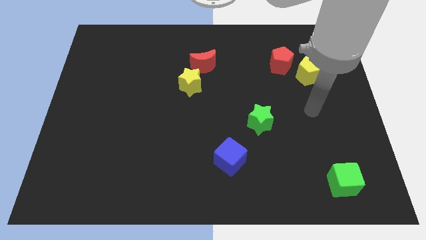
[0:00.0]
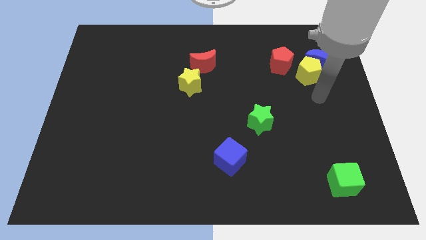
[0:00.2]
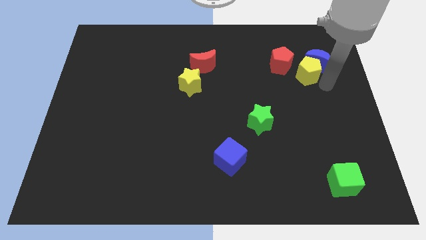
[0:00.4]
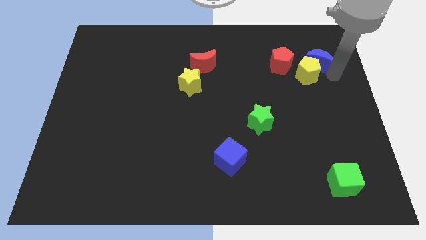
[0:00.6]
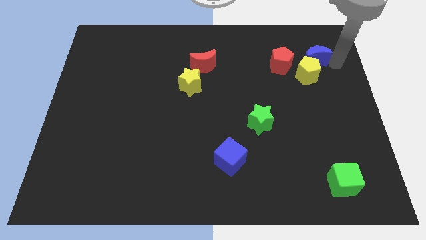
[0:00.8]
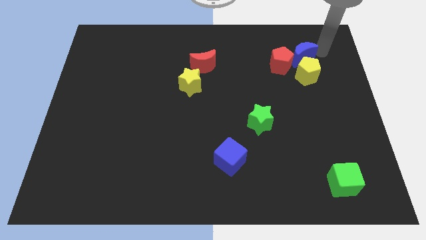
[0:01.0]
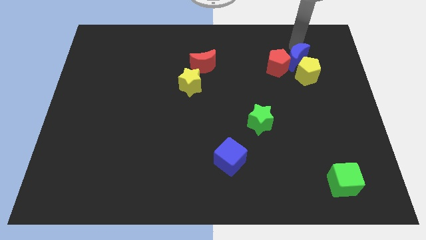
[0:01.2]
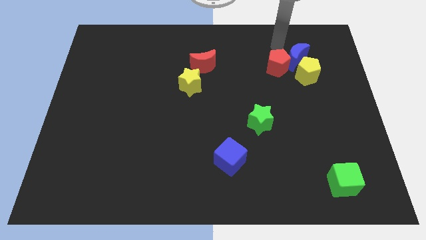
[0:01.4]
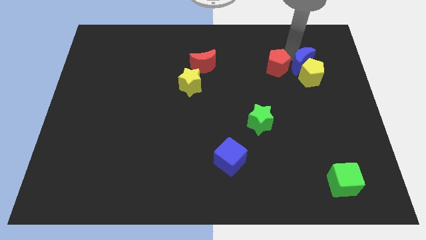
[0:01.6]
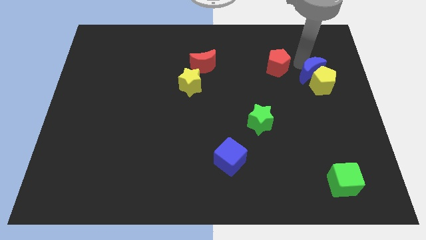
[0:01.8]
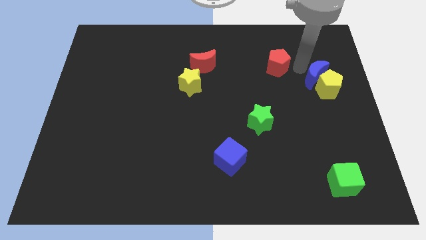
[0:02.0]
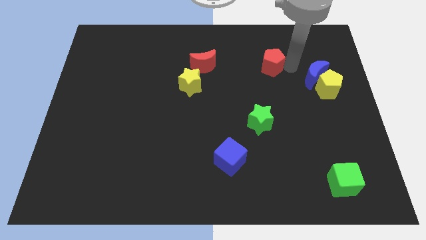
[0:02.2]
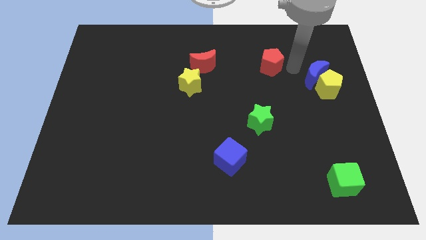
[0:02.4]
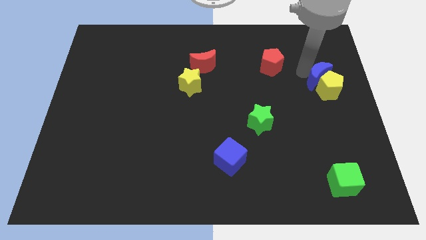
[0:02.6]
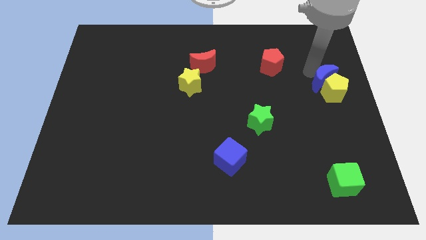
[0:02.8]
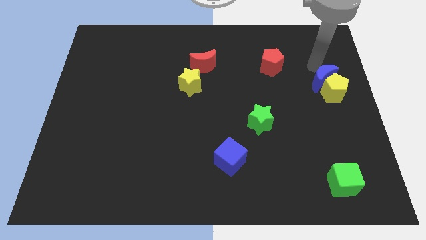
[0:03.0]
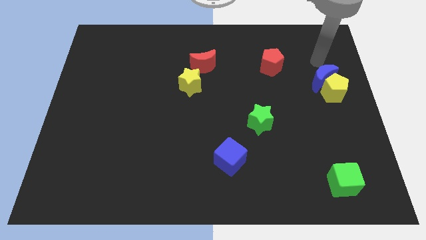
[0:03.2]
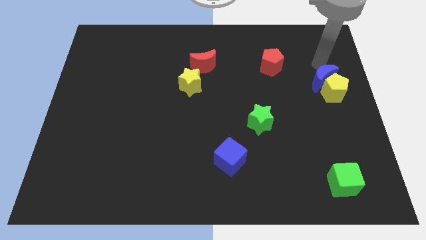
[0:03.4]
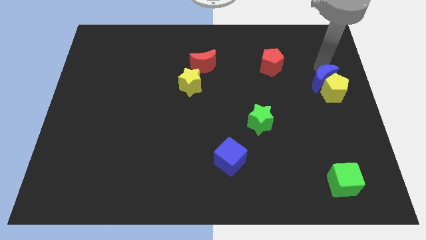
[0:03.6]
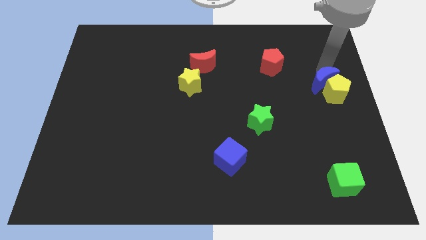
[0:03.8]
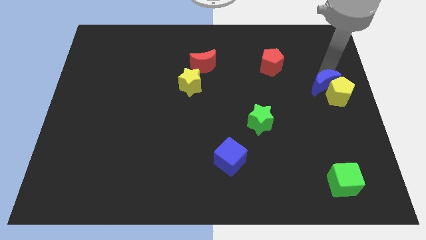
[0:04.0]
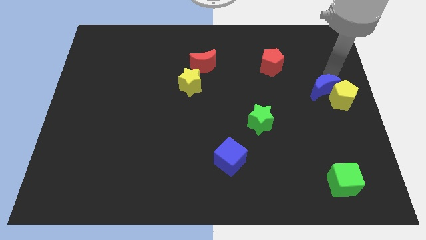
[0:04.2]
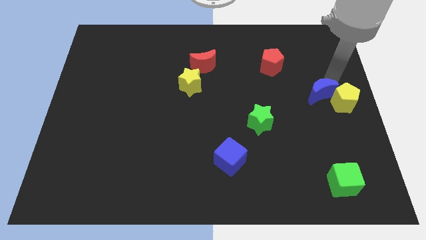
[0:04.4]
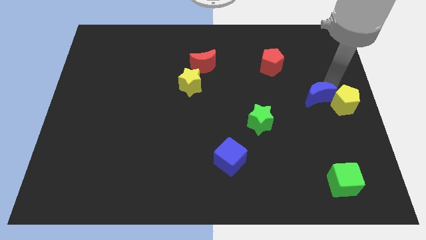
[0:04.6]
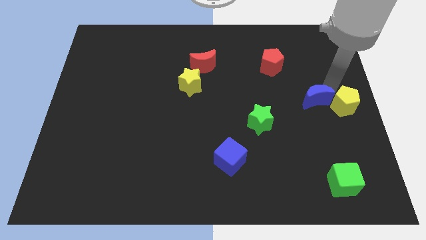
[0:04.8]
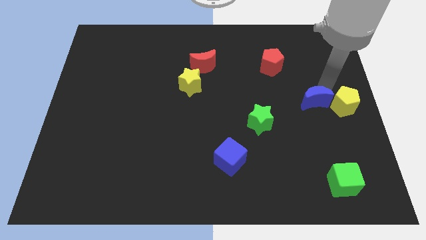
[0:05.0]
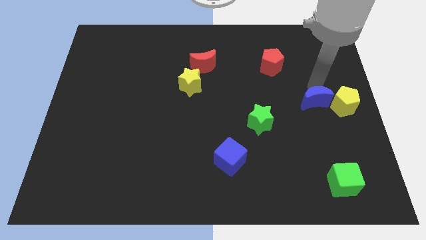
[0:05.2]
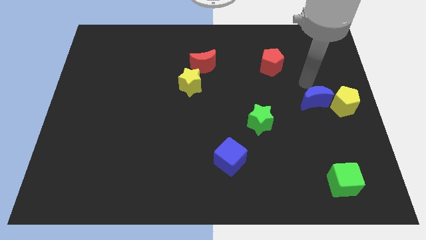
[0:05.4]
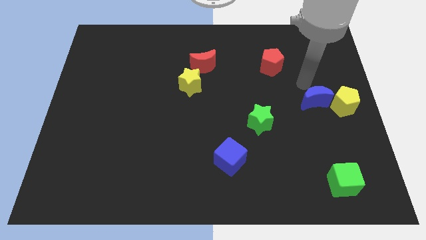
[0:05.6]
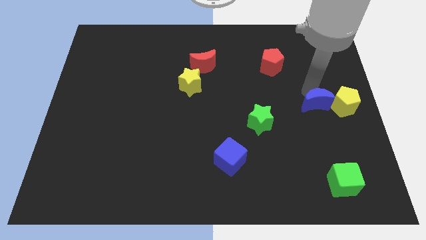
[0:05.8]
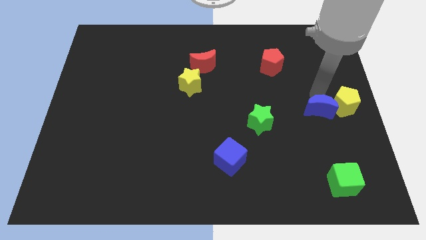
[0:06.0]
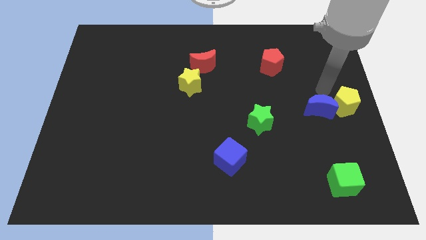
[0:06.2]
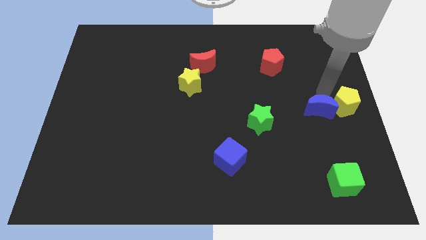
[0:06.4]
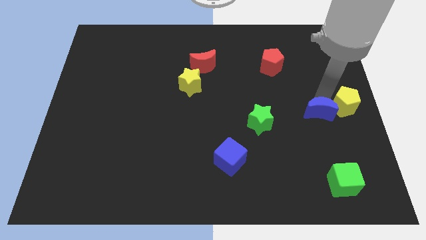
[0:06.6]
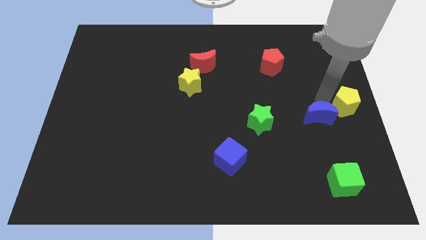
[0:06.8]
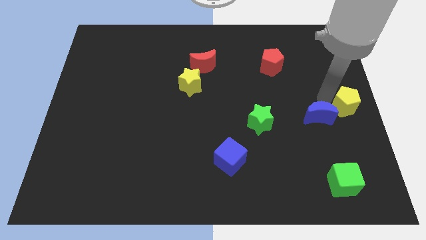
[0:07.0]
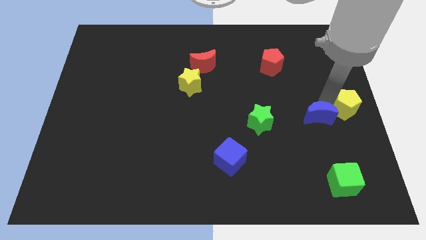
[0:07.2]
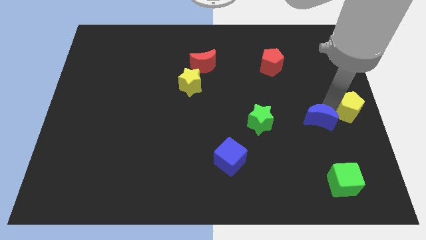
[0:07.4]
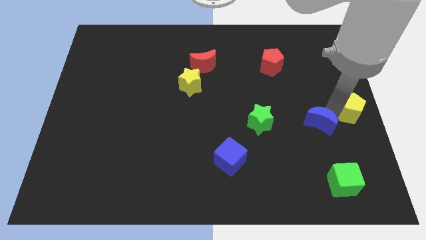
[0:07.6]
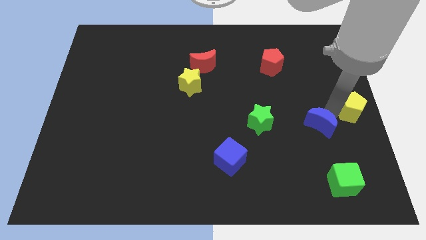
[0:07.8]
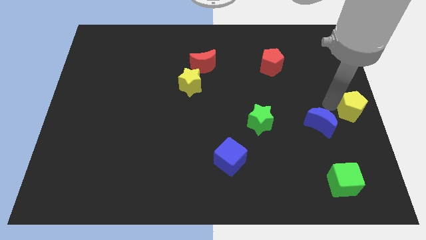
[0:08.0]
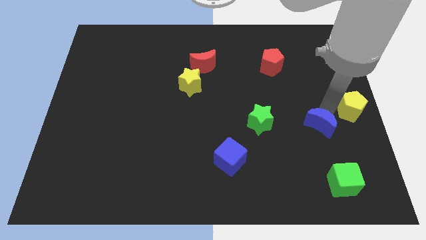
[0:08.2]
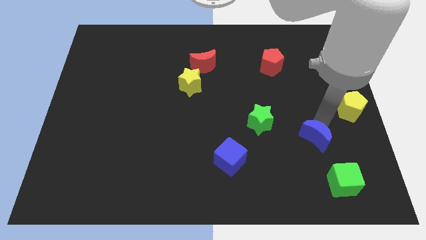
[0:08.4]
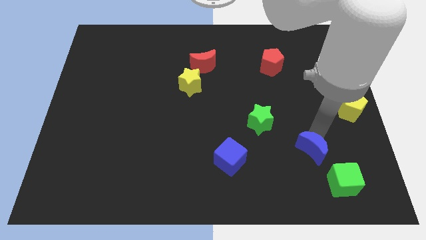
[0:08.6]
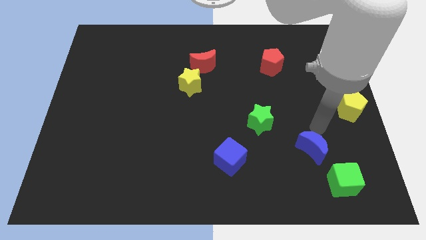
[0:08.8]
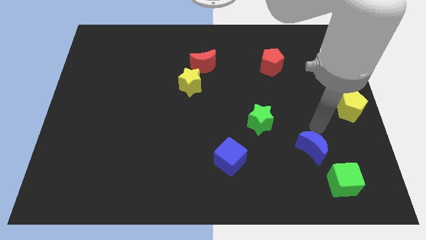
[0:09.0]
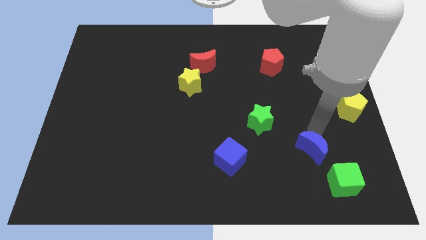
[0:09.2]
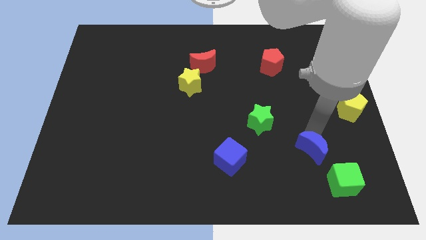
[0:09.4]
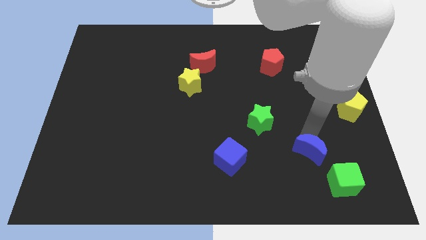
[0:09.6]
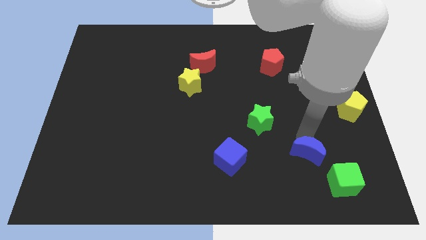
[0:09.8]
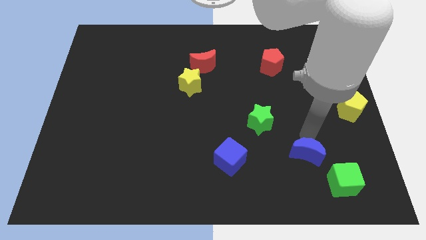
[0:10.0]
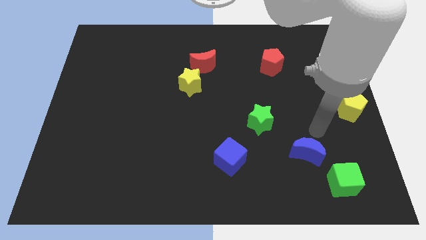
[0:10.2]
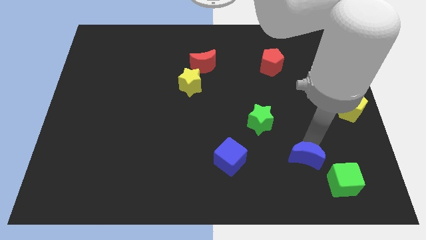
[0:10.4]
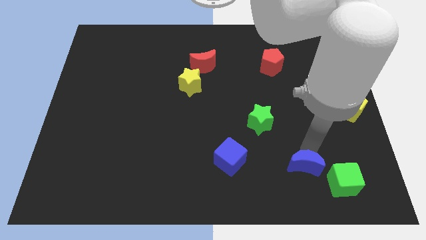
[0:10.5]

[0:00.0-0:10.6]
put the blue moon to the left side of the green cube
